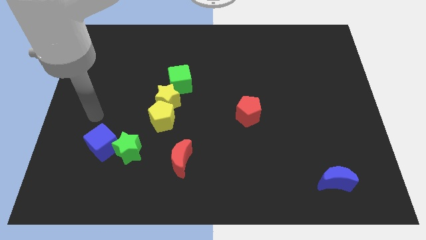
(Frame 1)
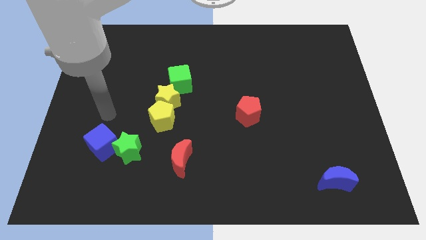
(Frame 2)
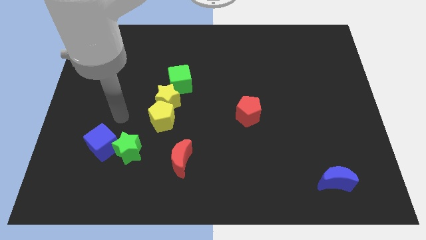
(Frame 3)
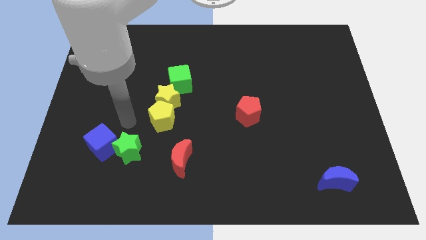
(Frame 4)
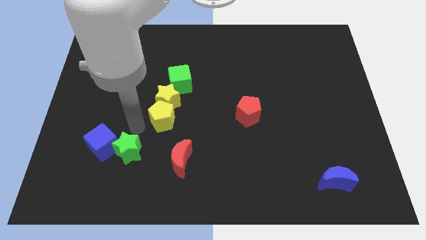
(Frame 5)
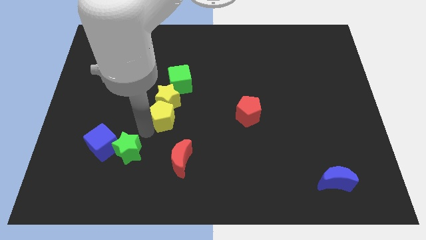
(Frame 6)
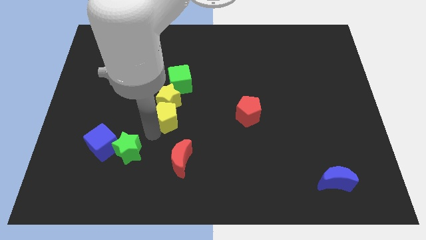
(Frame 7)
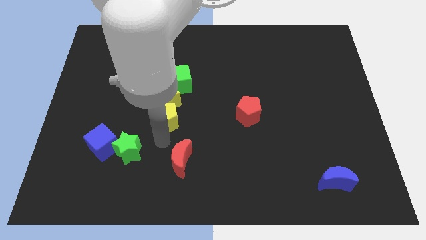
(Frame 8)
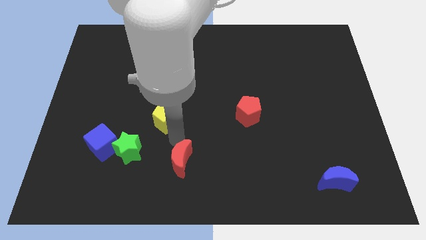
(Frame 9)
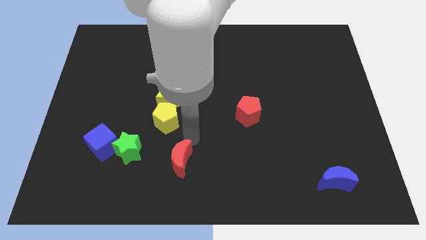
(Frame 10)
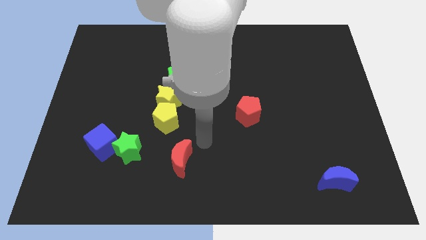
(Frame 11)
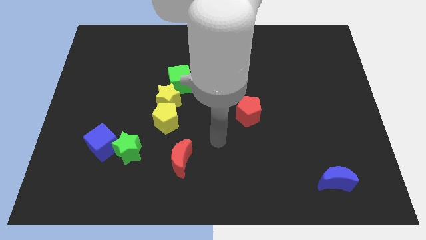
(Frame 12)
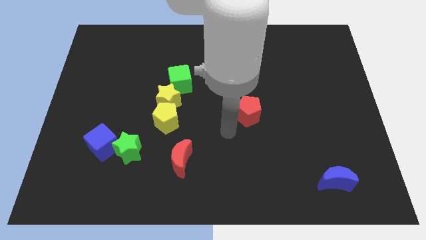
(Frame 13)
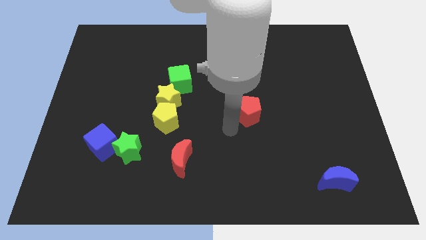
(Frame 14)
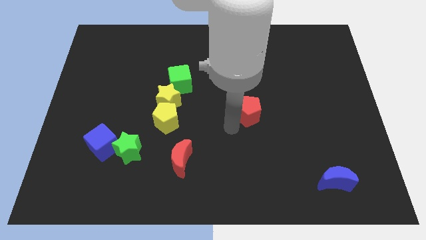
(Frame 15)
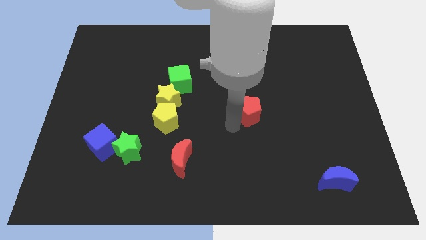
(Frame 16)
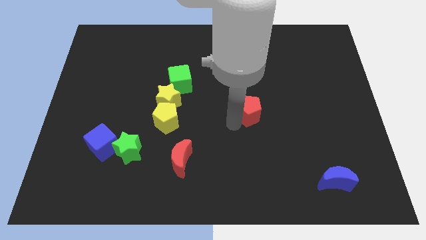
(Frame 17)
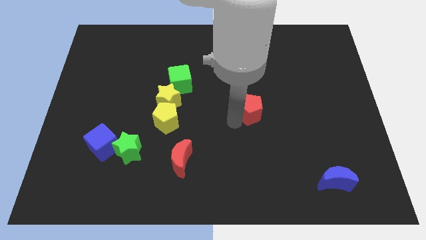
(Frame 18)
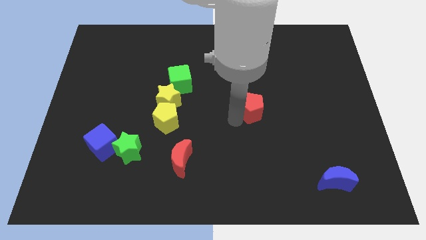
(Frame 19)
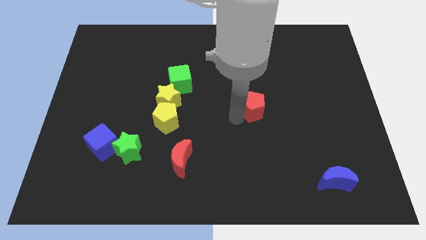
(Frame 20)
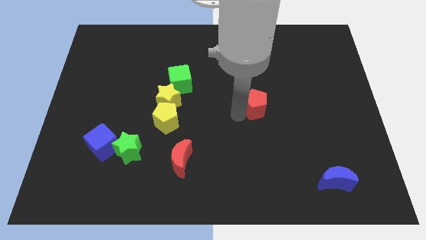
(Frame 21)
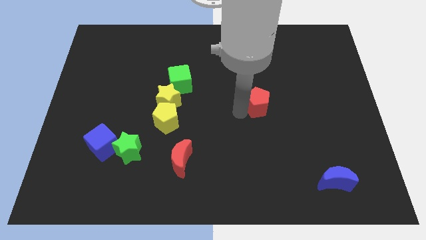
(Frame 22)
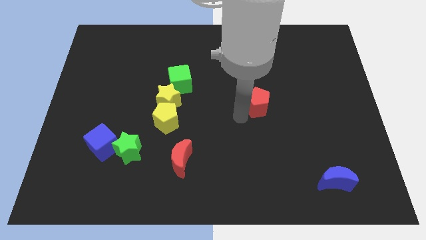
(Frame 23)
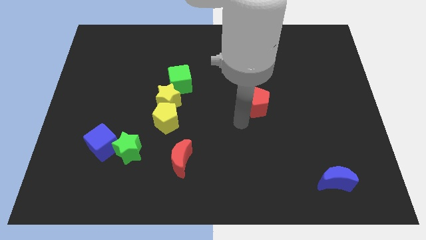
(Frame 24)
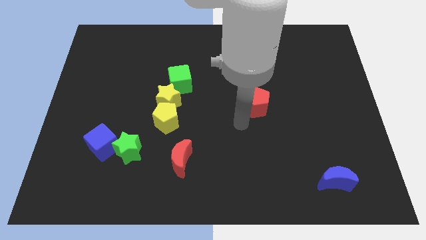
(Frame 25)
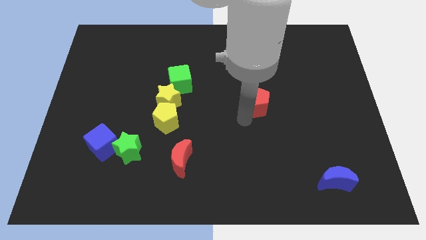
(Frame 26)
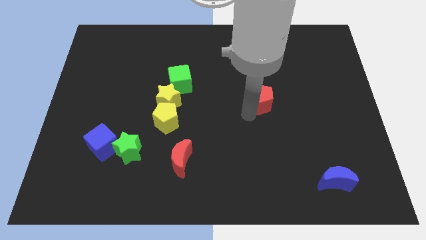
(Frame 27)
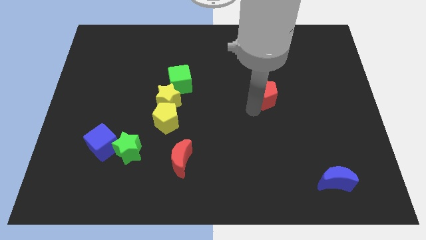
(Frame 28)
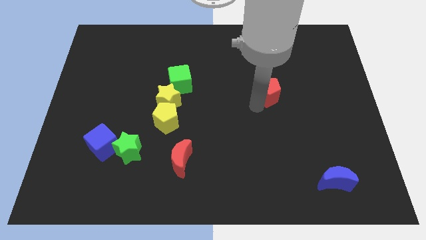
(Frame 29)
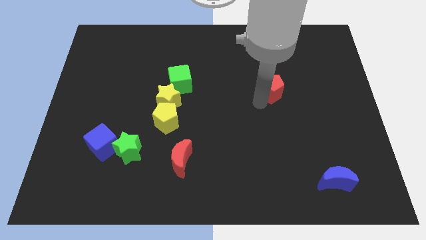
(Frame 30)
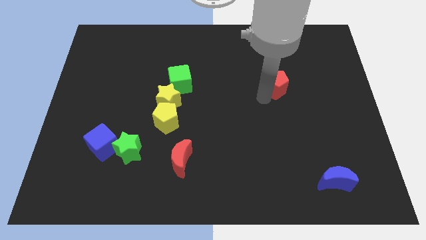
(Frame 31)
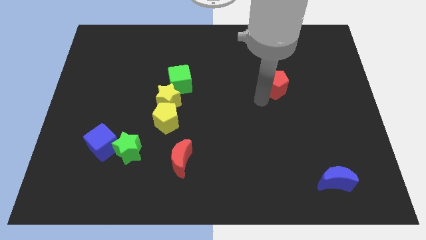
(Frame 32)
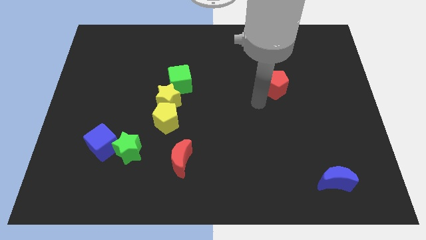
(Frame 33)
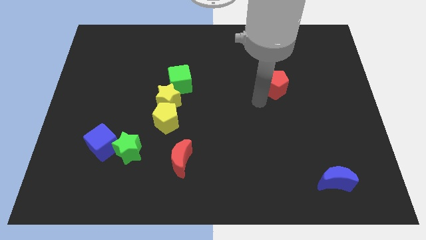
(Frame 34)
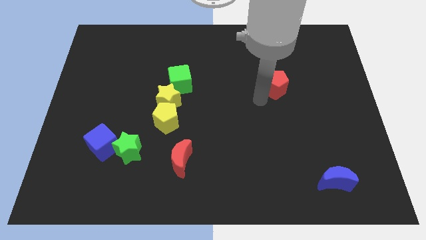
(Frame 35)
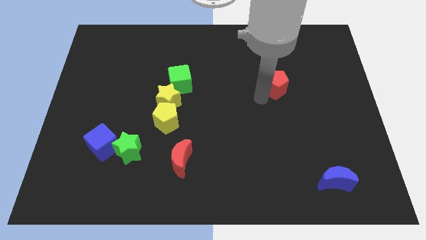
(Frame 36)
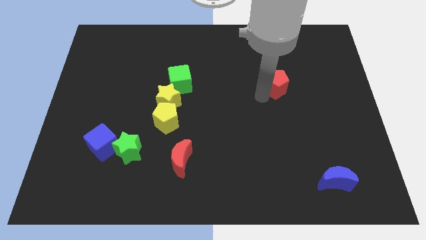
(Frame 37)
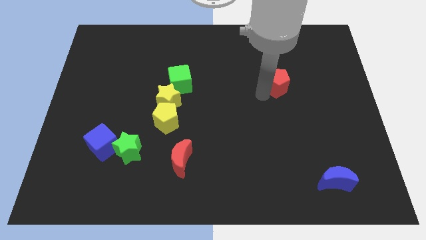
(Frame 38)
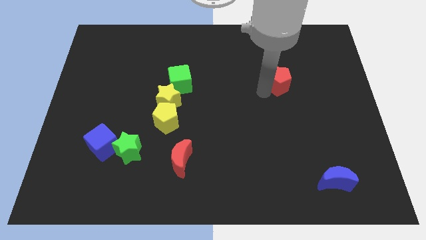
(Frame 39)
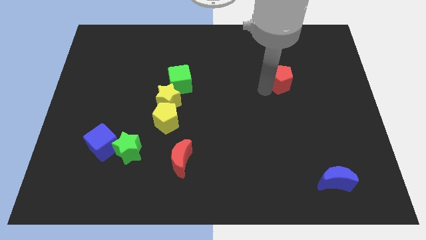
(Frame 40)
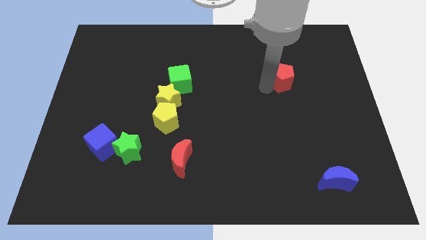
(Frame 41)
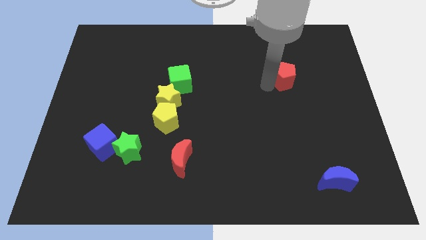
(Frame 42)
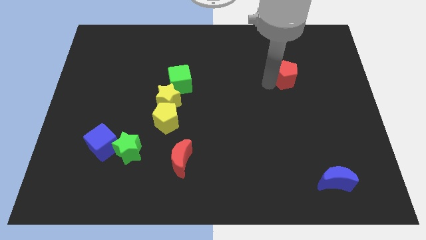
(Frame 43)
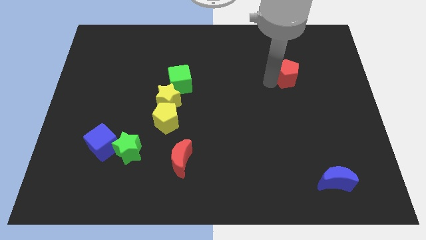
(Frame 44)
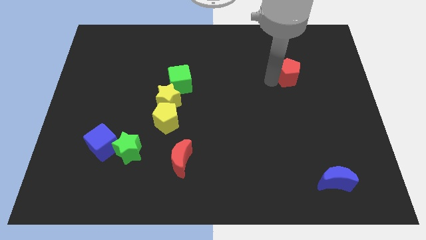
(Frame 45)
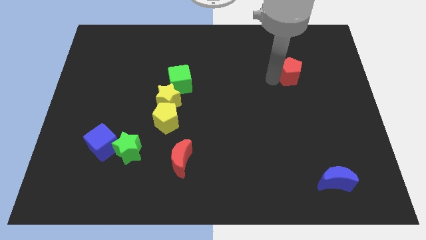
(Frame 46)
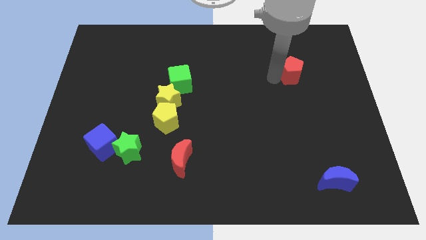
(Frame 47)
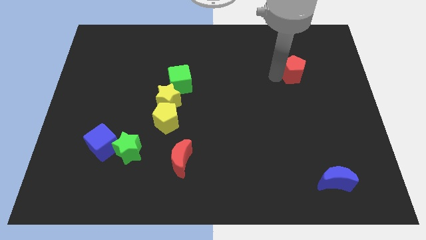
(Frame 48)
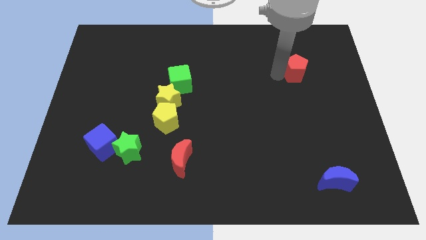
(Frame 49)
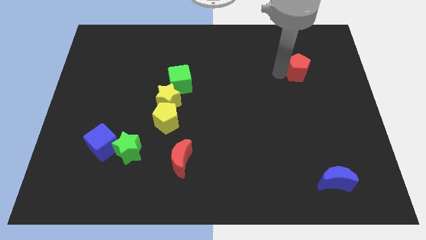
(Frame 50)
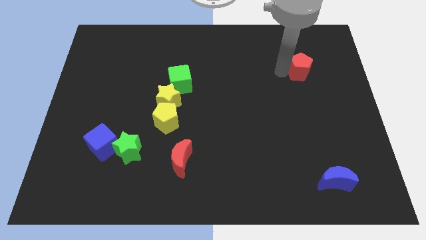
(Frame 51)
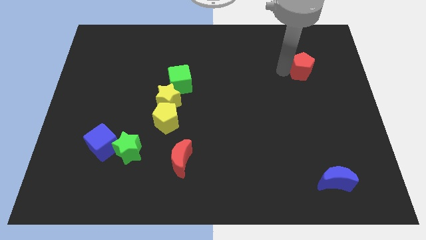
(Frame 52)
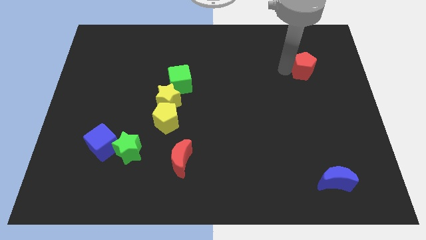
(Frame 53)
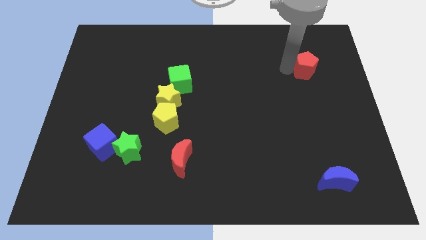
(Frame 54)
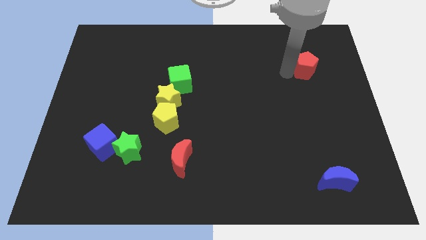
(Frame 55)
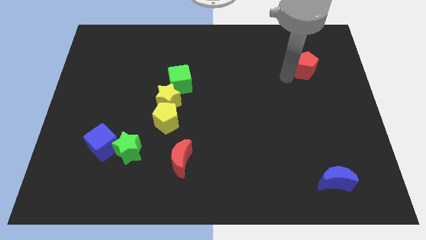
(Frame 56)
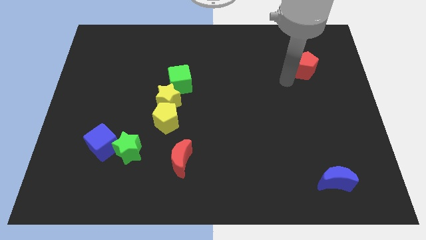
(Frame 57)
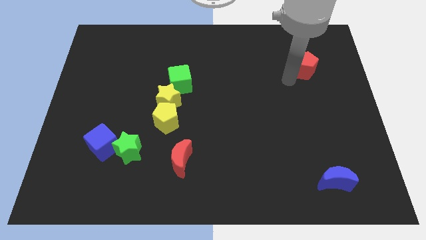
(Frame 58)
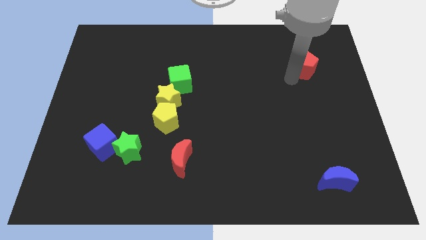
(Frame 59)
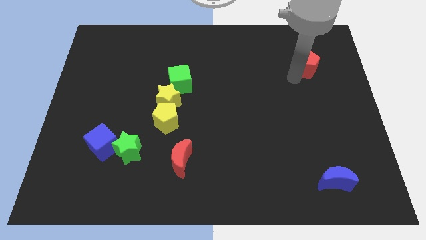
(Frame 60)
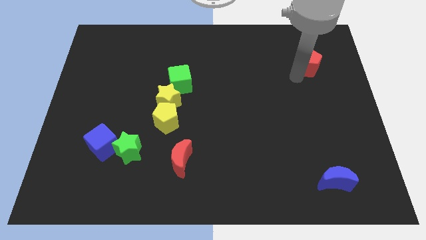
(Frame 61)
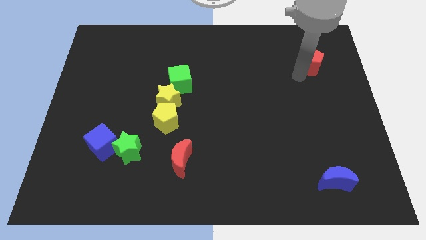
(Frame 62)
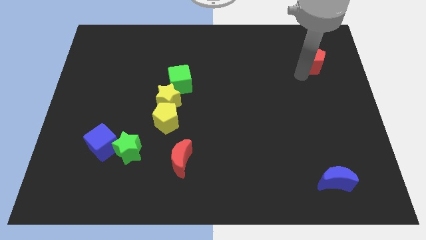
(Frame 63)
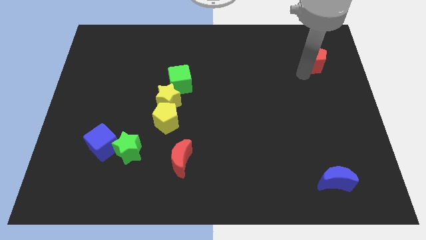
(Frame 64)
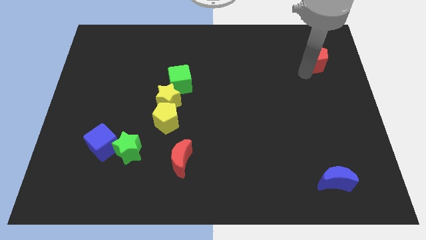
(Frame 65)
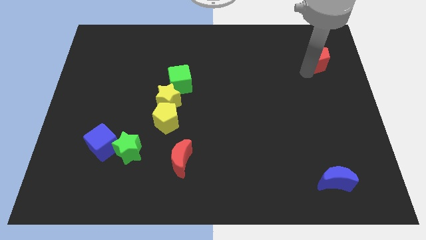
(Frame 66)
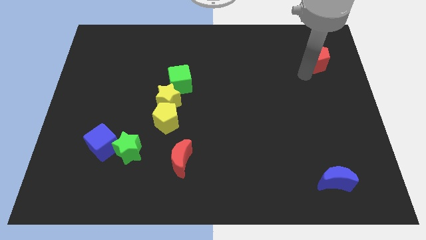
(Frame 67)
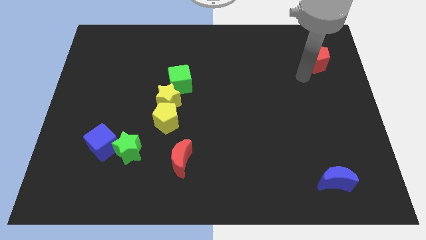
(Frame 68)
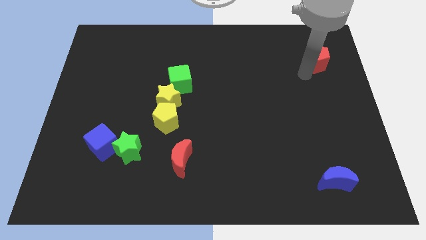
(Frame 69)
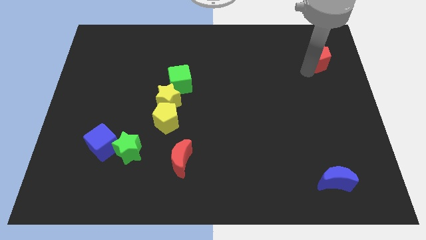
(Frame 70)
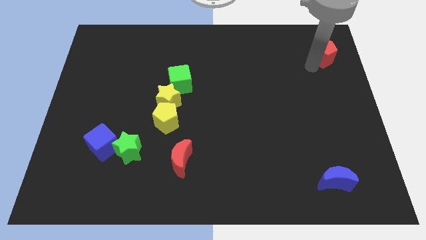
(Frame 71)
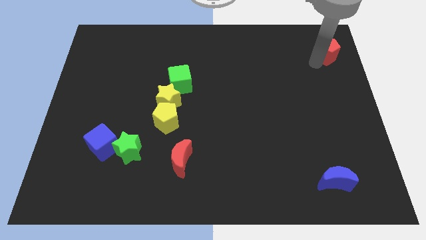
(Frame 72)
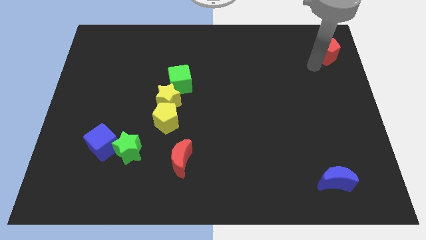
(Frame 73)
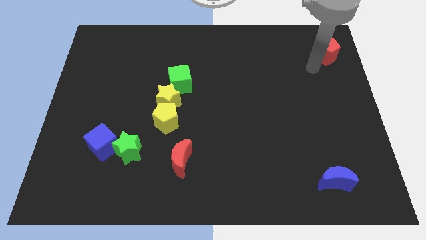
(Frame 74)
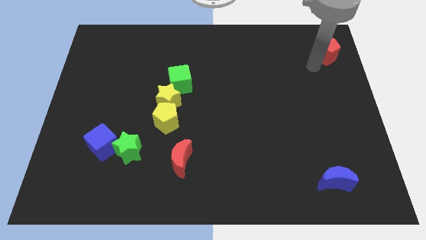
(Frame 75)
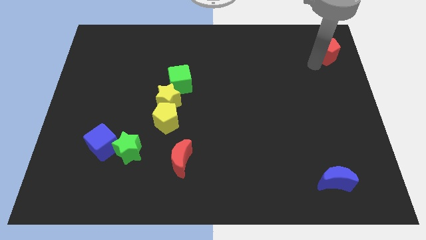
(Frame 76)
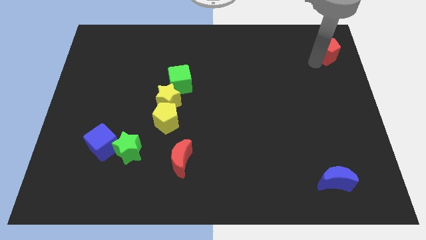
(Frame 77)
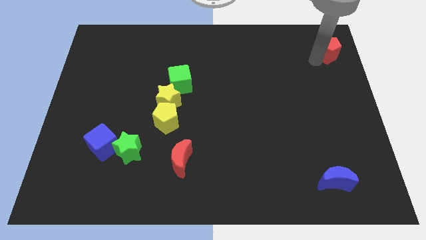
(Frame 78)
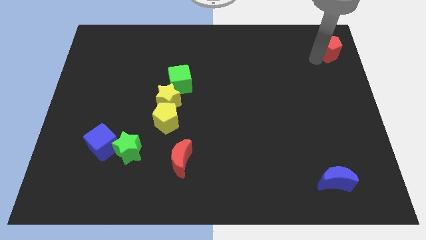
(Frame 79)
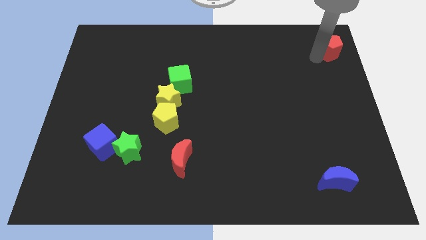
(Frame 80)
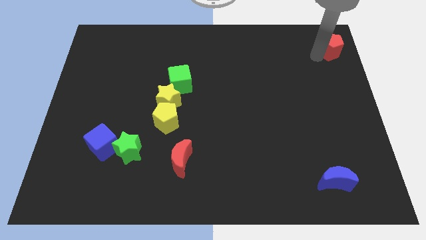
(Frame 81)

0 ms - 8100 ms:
move the red pentagon to the upper right corner

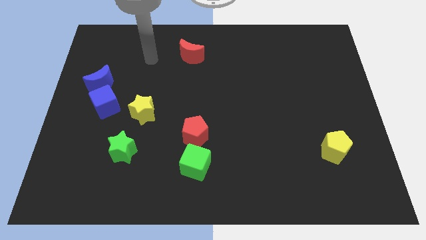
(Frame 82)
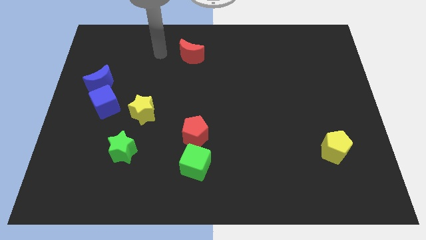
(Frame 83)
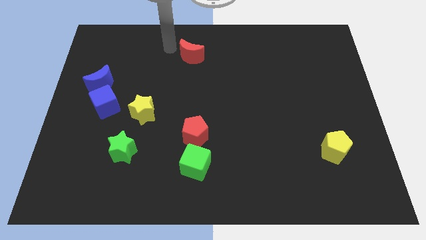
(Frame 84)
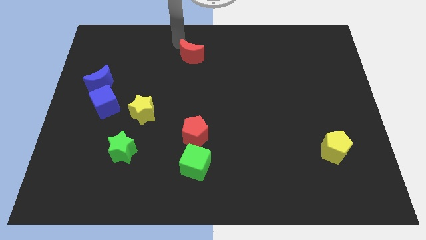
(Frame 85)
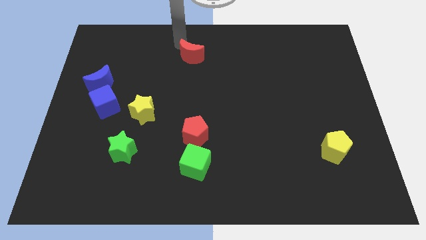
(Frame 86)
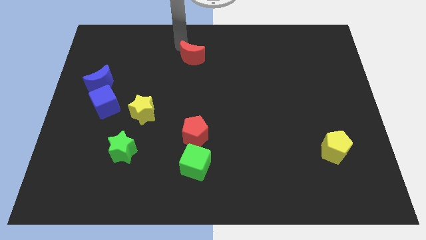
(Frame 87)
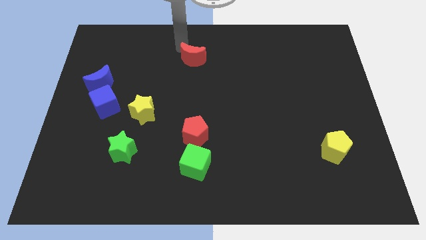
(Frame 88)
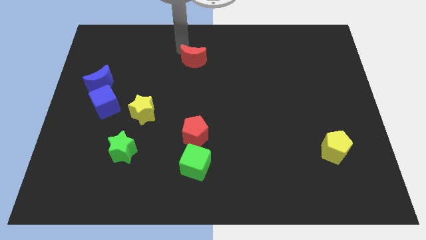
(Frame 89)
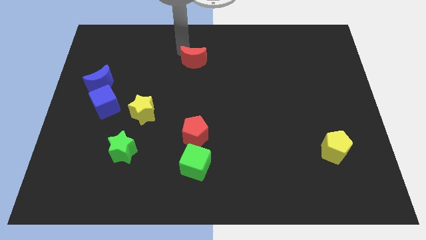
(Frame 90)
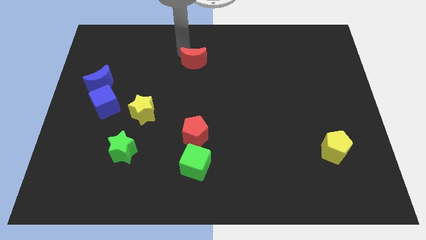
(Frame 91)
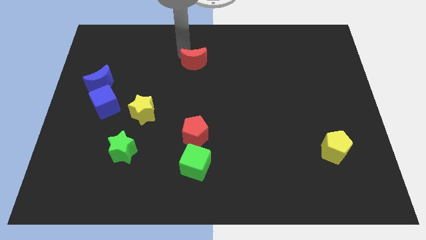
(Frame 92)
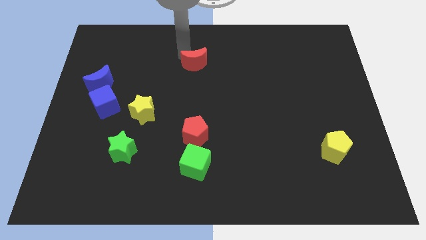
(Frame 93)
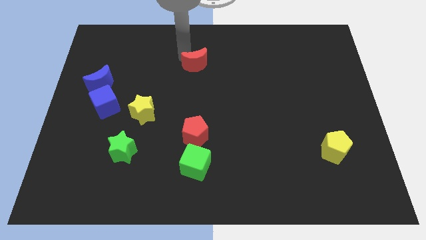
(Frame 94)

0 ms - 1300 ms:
put the red moon to the middle of the board
